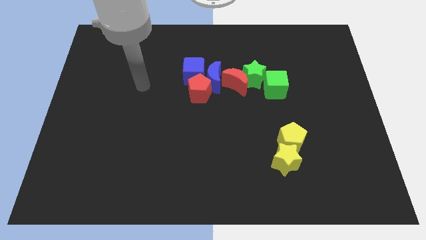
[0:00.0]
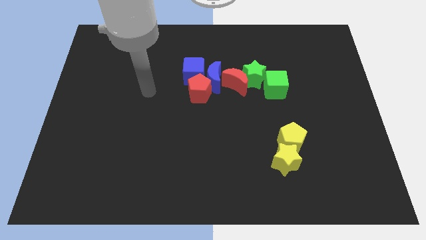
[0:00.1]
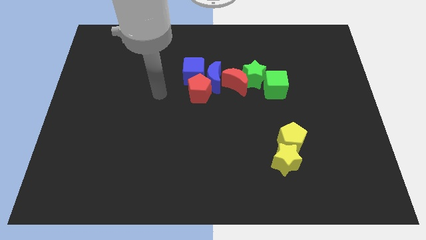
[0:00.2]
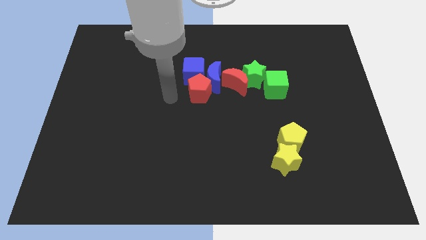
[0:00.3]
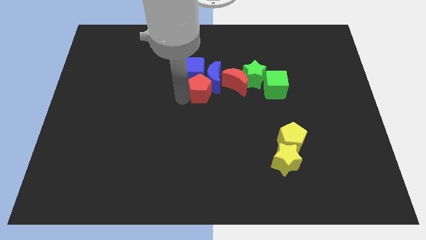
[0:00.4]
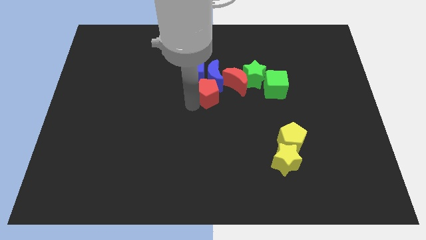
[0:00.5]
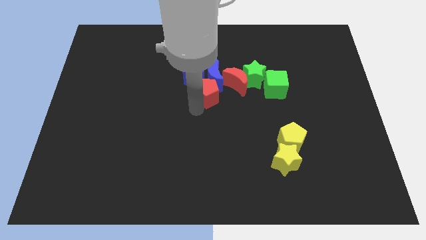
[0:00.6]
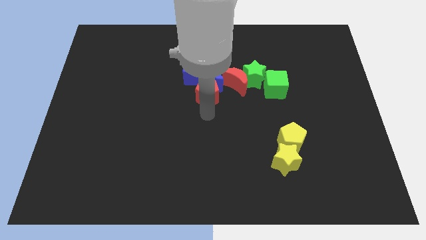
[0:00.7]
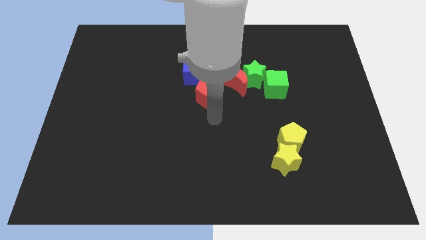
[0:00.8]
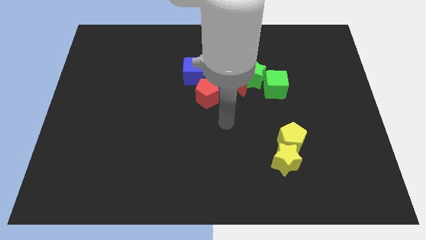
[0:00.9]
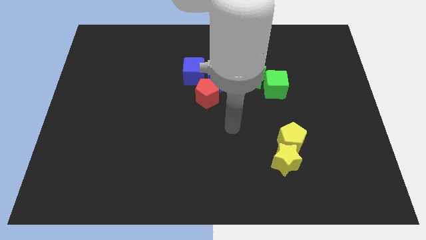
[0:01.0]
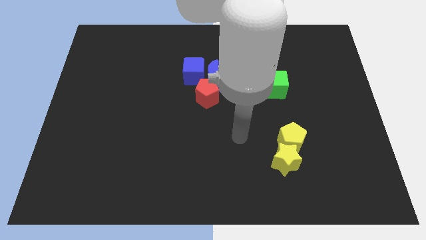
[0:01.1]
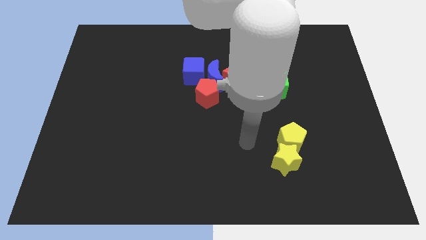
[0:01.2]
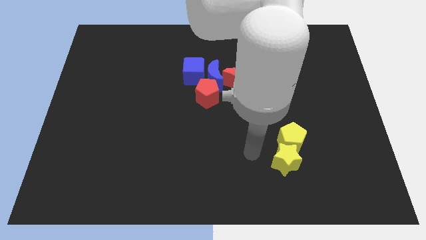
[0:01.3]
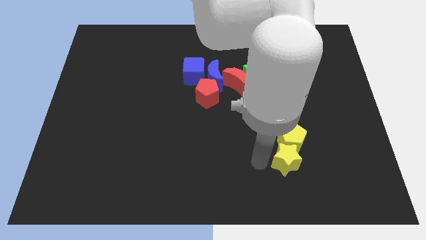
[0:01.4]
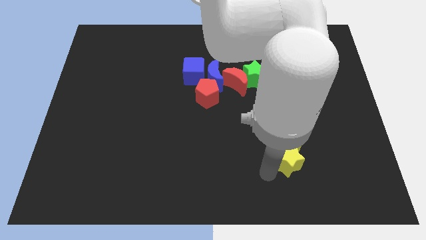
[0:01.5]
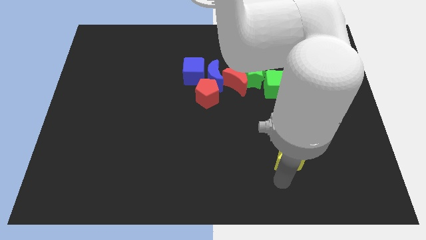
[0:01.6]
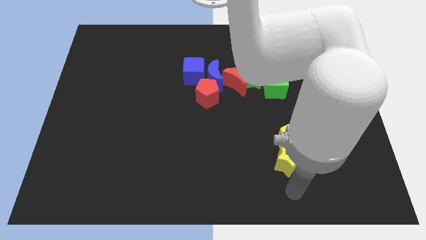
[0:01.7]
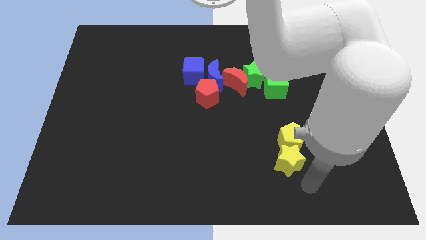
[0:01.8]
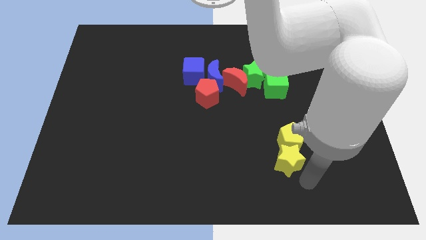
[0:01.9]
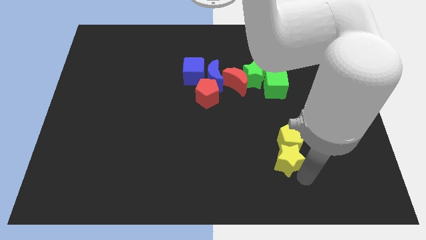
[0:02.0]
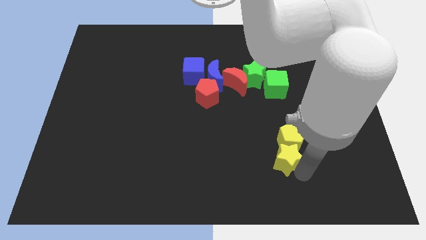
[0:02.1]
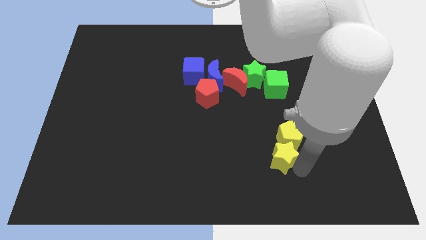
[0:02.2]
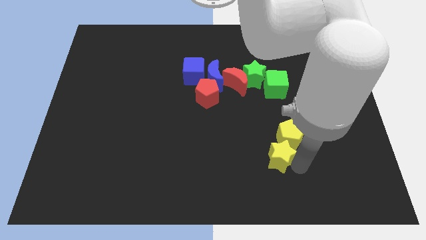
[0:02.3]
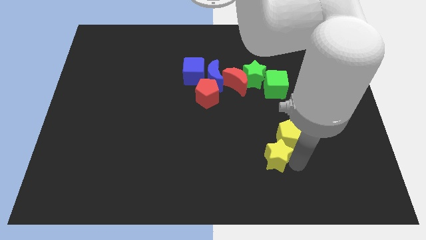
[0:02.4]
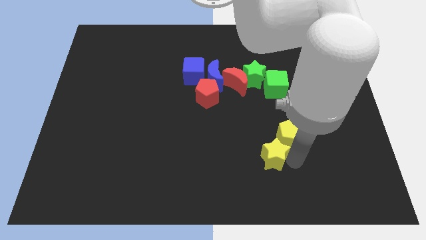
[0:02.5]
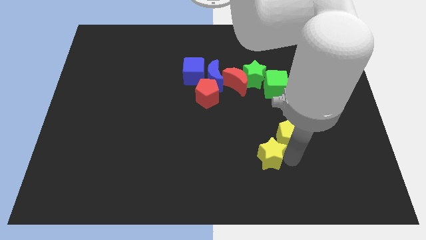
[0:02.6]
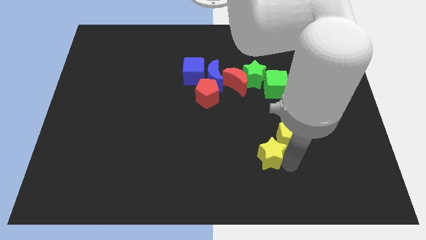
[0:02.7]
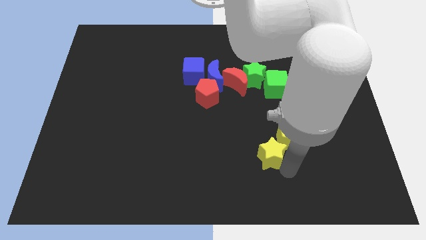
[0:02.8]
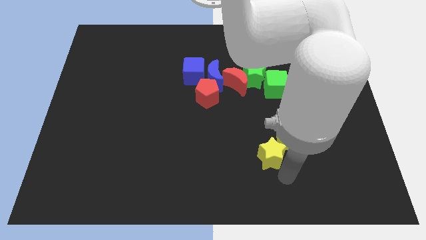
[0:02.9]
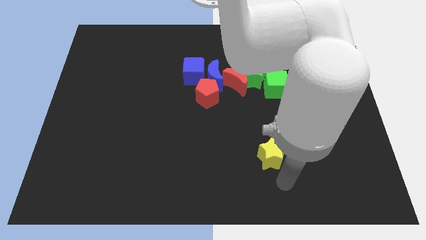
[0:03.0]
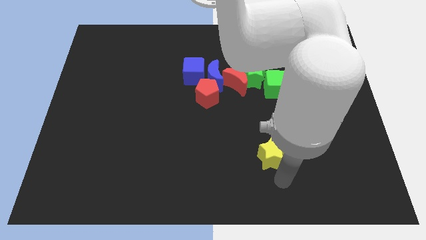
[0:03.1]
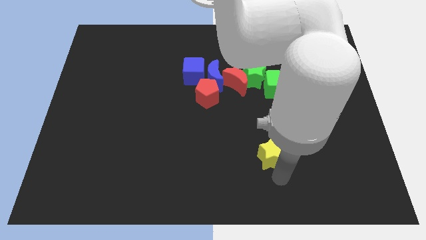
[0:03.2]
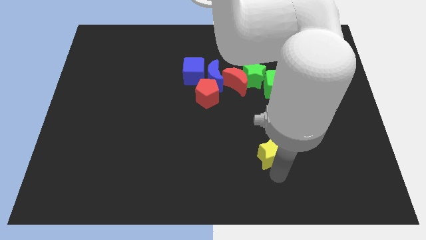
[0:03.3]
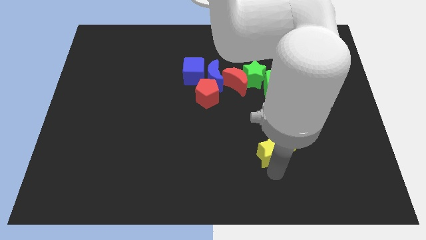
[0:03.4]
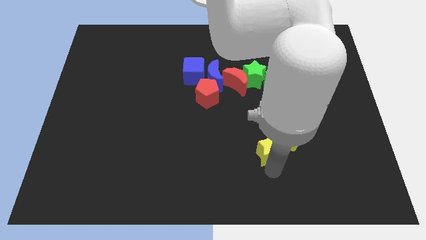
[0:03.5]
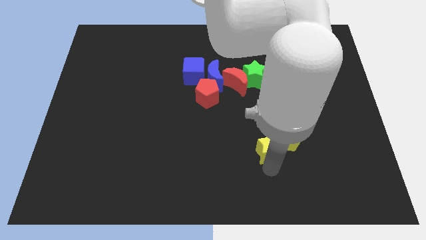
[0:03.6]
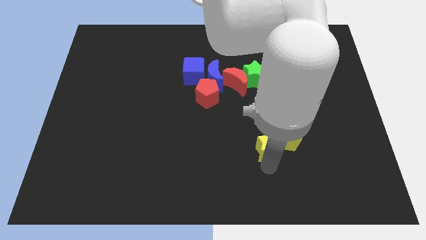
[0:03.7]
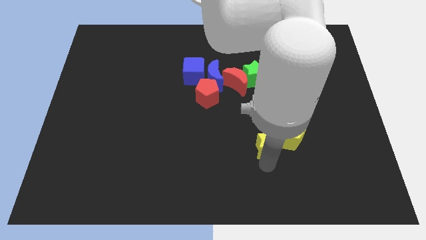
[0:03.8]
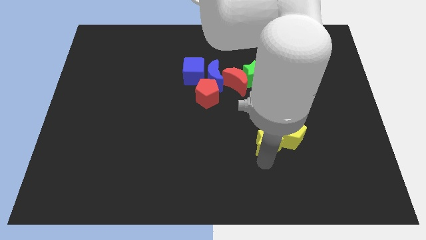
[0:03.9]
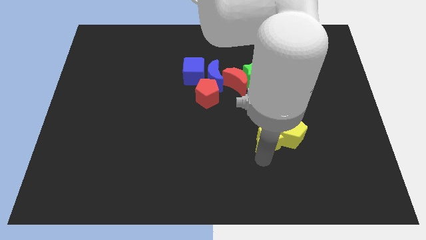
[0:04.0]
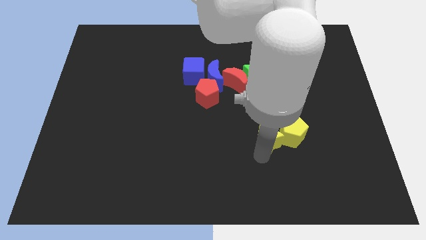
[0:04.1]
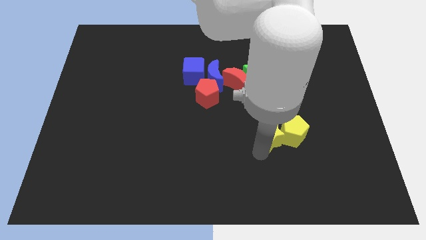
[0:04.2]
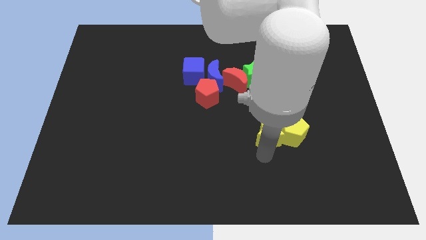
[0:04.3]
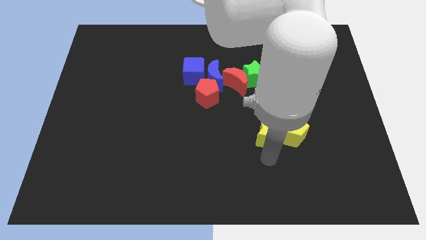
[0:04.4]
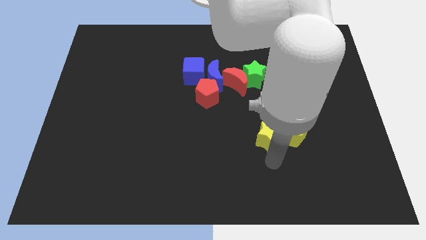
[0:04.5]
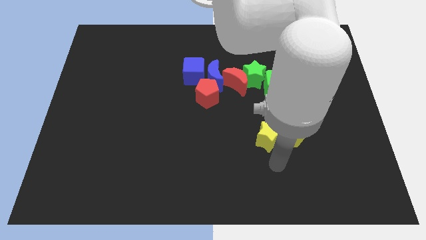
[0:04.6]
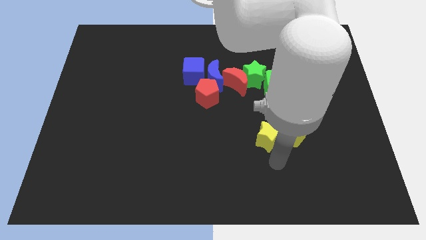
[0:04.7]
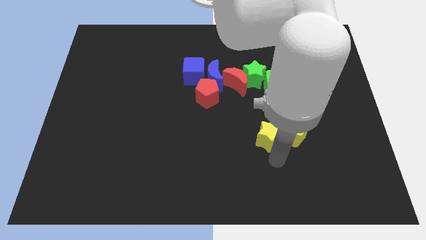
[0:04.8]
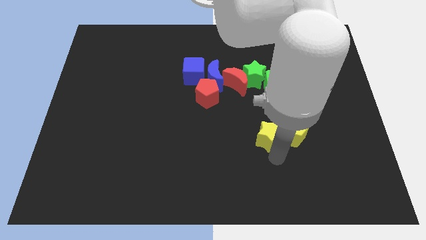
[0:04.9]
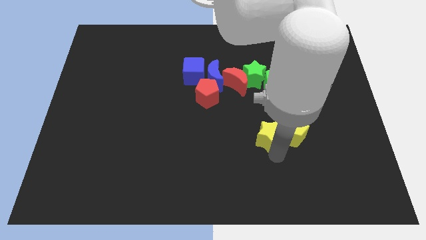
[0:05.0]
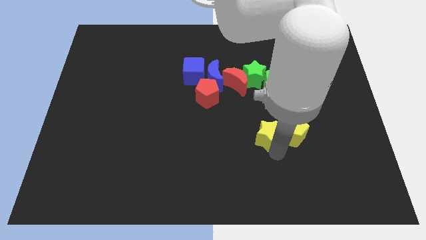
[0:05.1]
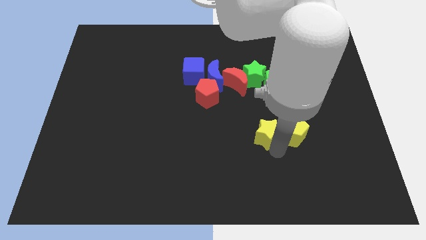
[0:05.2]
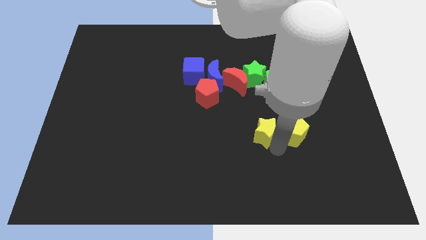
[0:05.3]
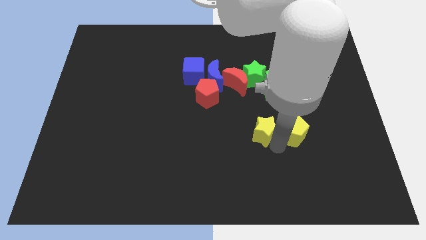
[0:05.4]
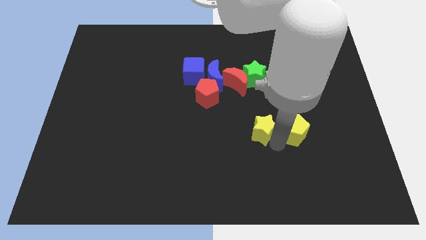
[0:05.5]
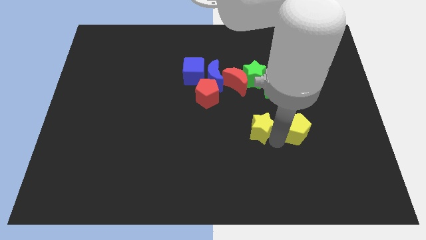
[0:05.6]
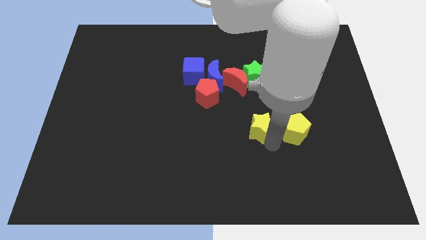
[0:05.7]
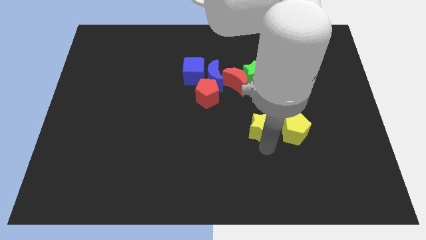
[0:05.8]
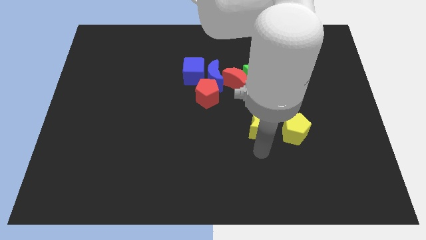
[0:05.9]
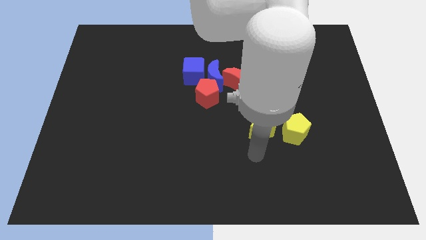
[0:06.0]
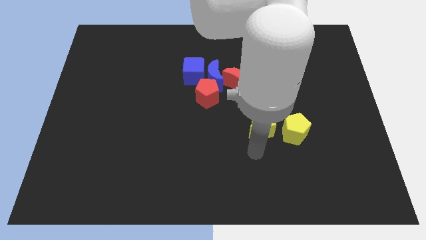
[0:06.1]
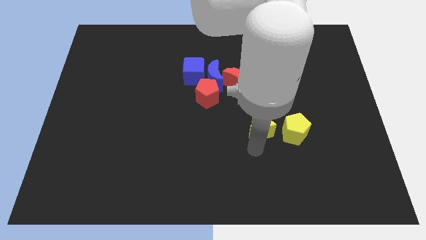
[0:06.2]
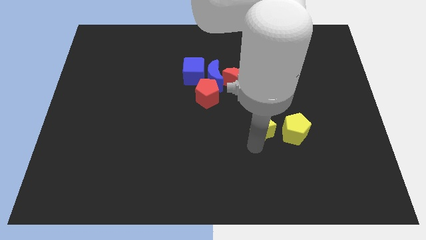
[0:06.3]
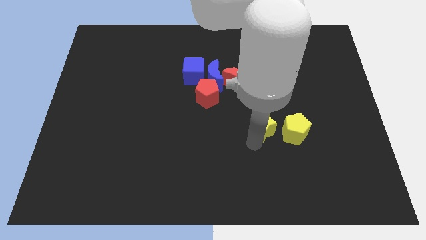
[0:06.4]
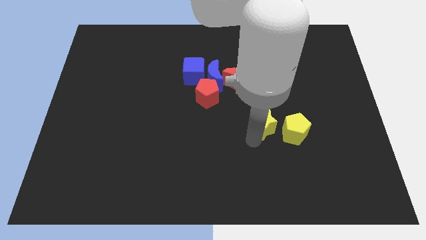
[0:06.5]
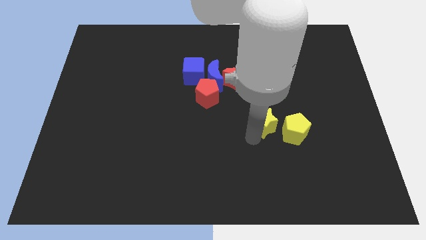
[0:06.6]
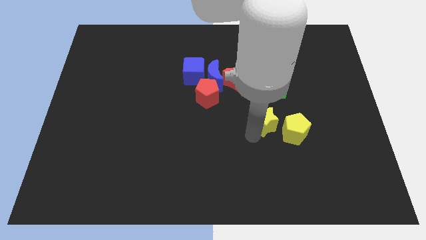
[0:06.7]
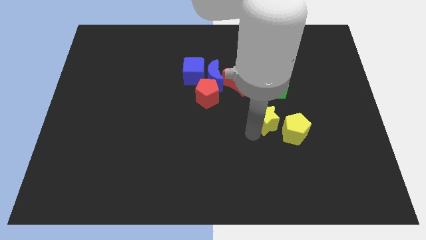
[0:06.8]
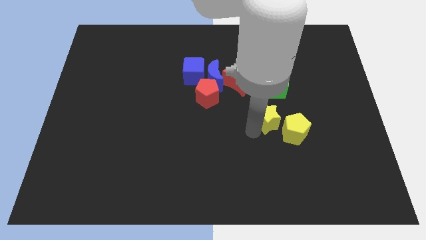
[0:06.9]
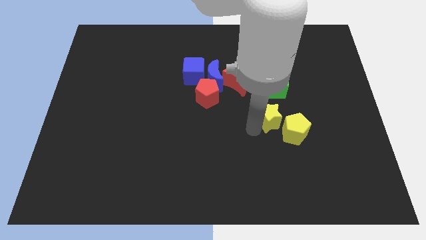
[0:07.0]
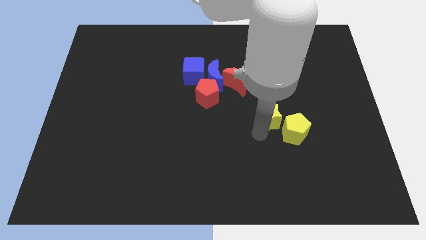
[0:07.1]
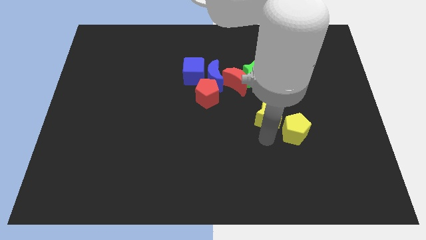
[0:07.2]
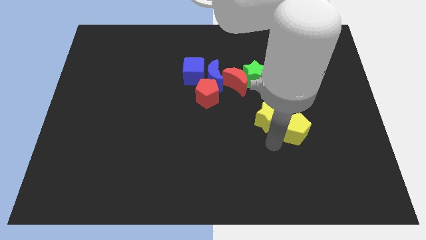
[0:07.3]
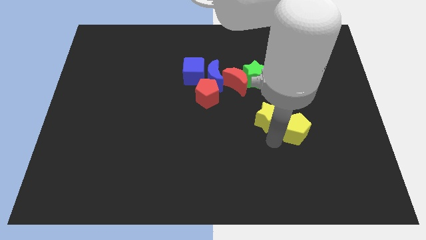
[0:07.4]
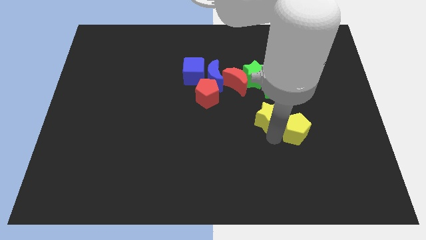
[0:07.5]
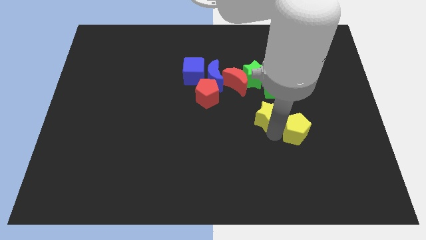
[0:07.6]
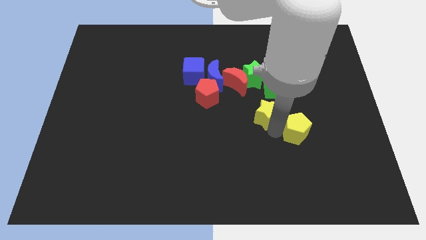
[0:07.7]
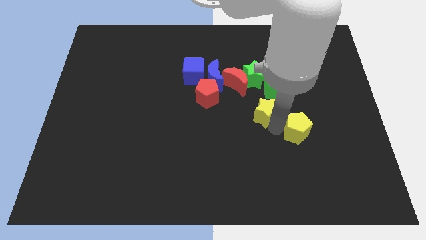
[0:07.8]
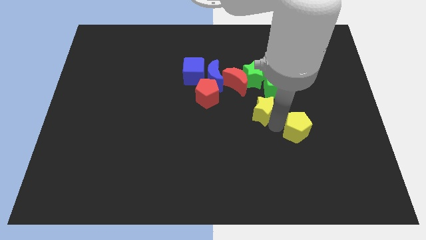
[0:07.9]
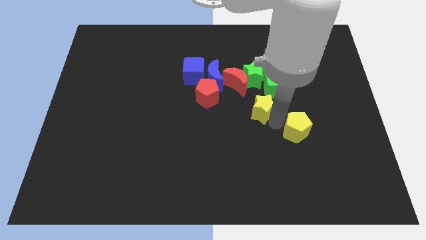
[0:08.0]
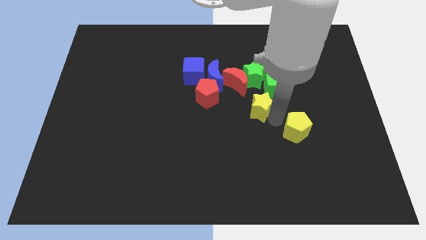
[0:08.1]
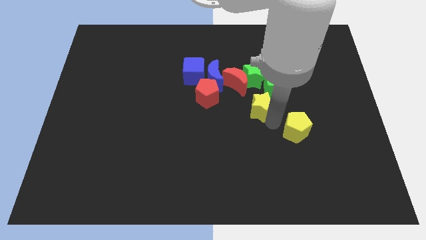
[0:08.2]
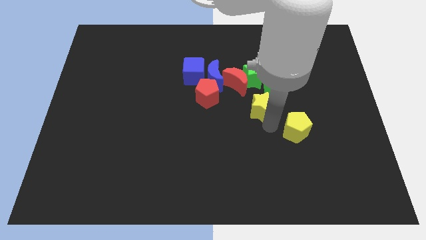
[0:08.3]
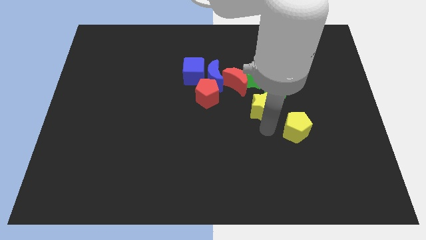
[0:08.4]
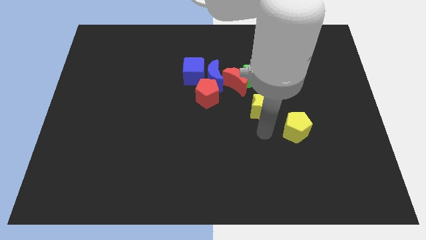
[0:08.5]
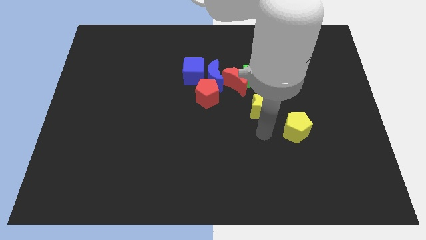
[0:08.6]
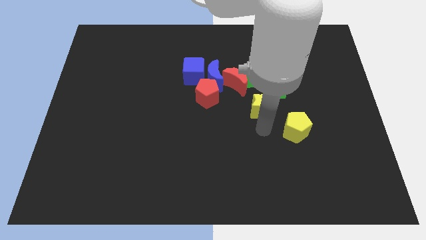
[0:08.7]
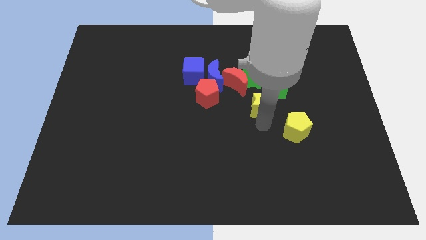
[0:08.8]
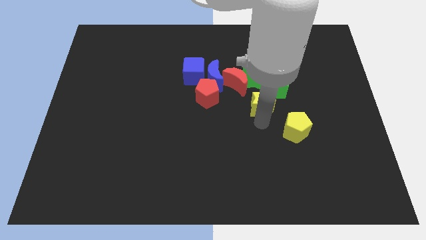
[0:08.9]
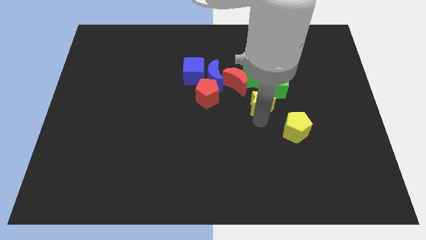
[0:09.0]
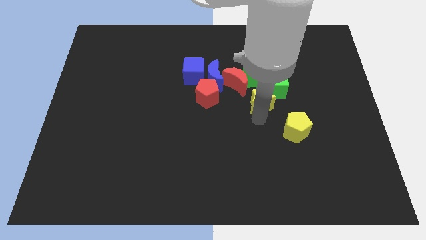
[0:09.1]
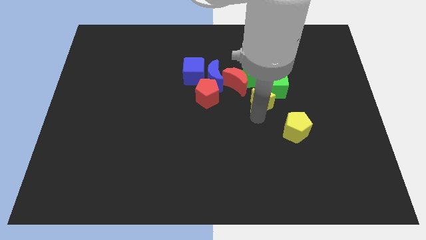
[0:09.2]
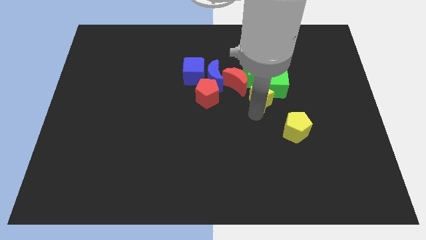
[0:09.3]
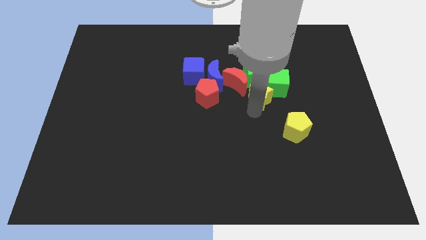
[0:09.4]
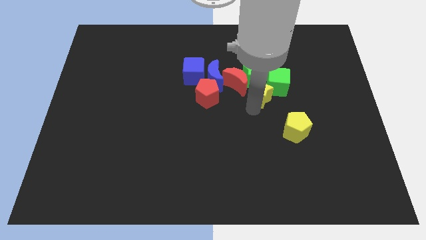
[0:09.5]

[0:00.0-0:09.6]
slide the yellow star close to the green star
